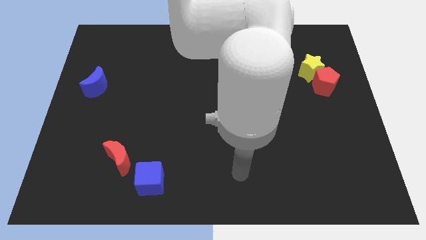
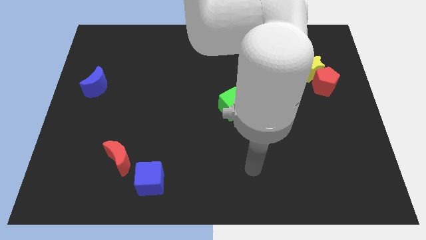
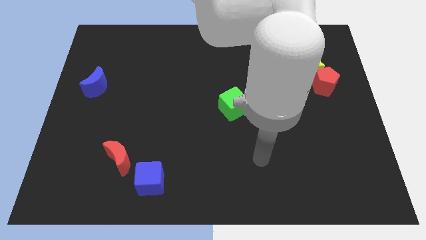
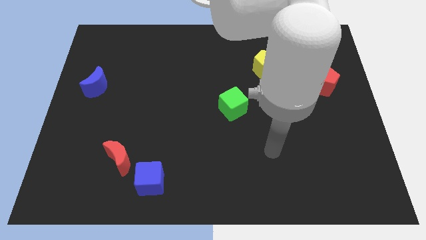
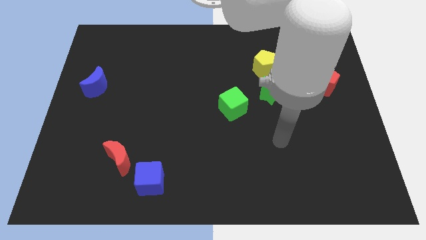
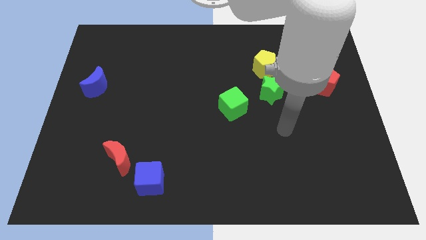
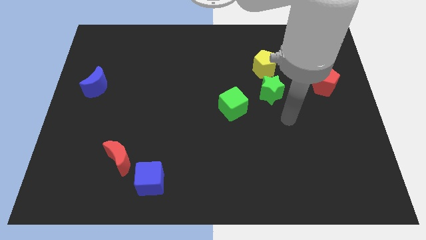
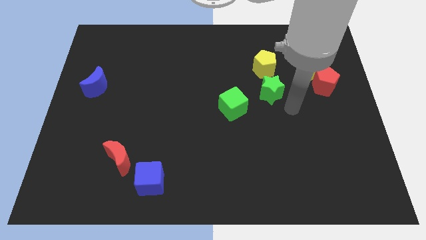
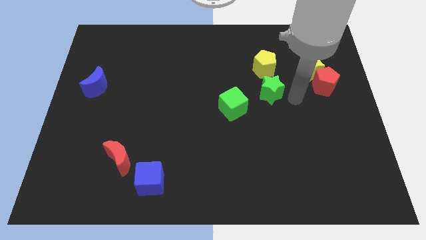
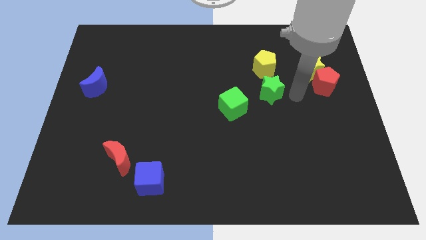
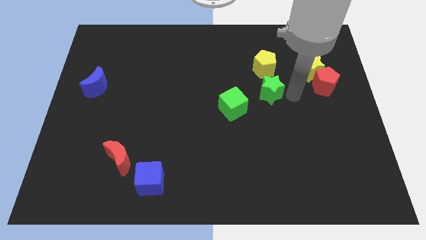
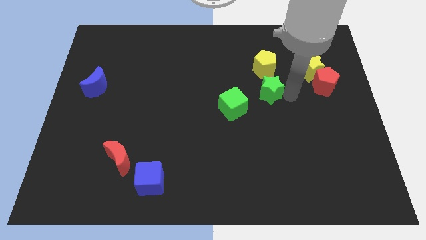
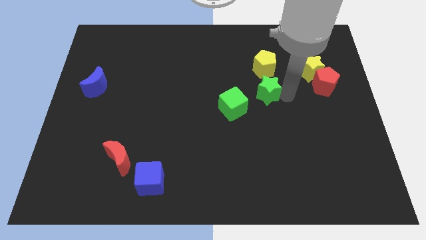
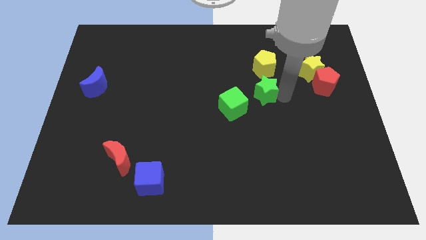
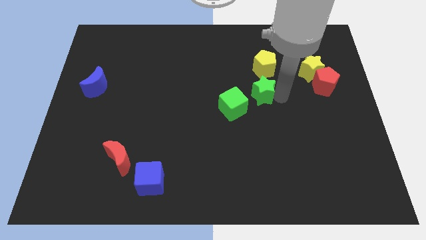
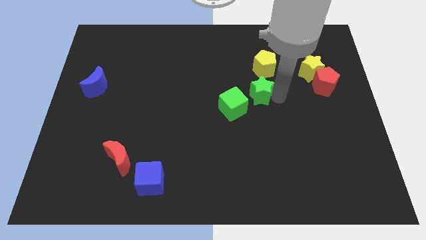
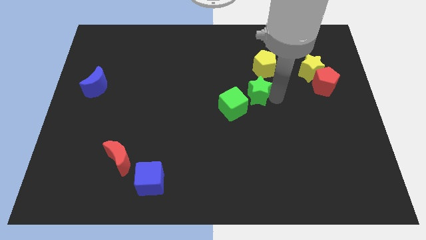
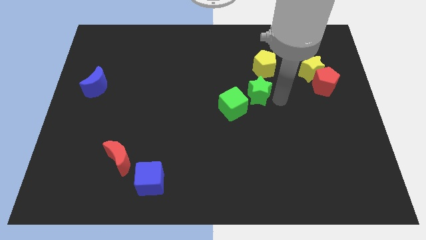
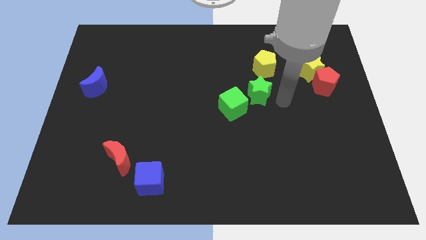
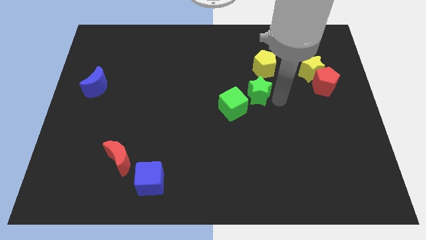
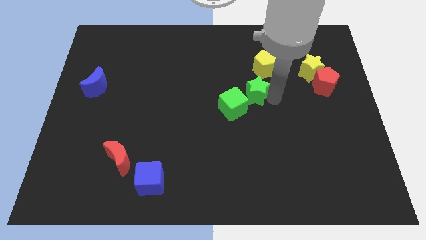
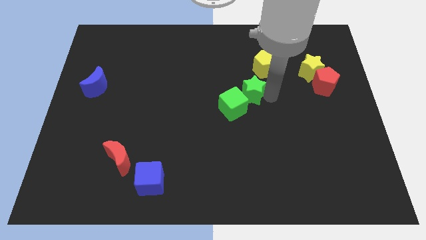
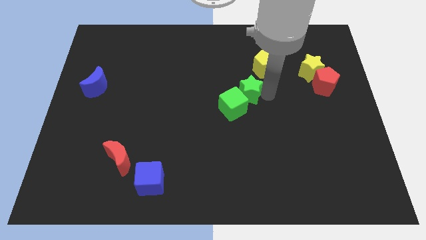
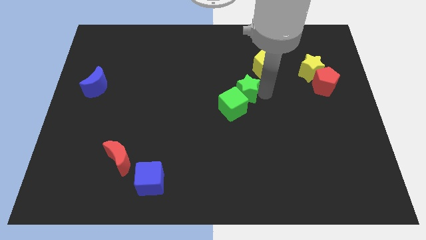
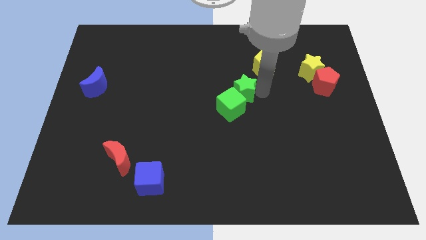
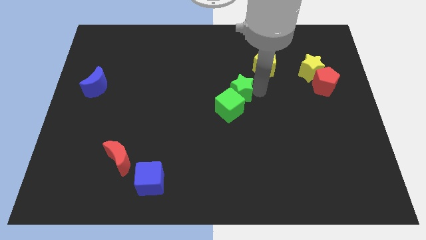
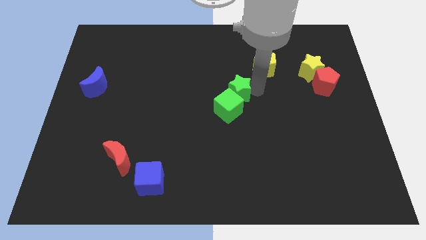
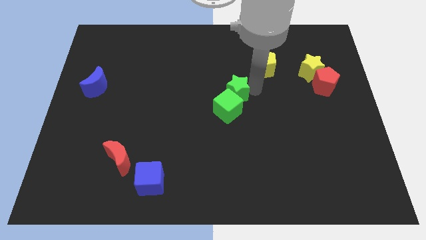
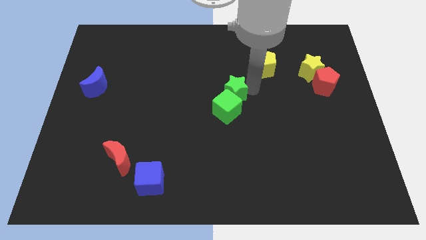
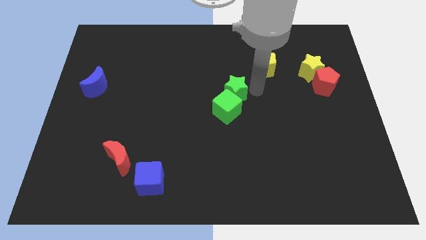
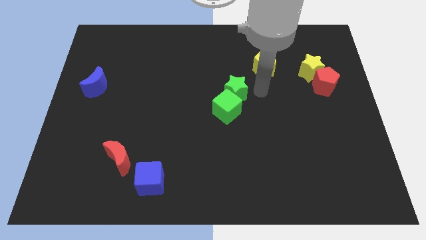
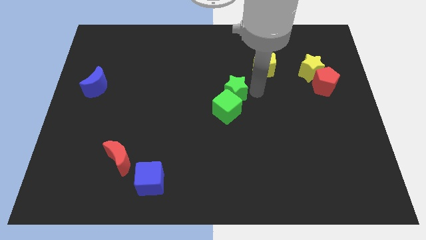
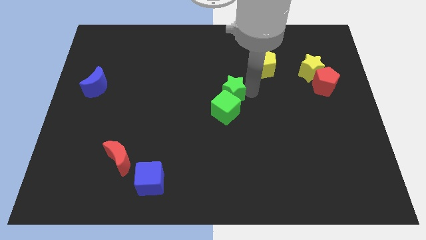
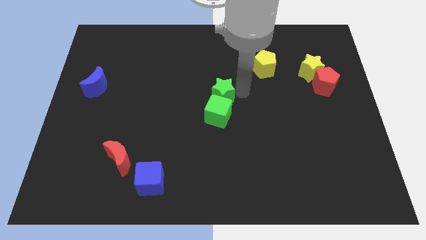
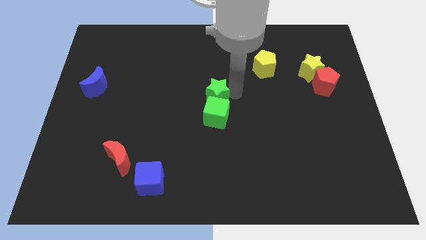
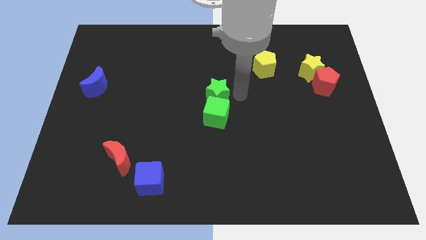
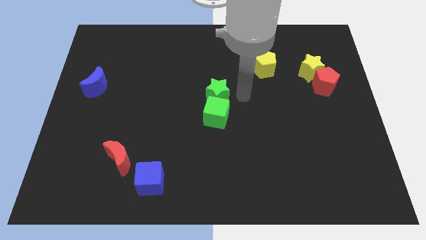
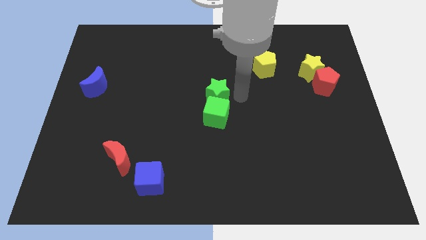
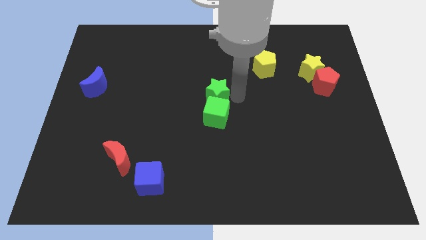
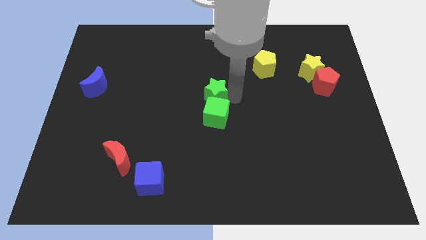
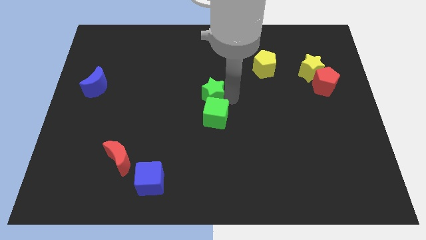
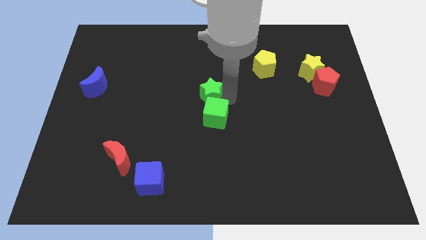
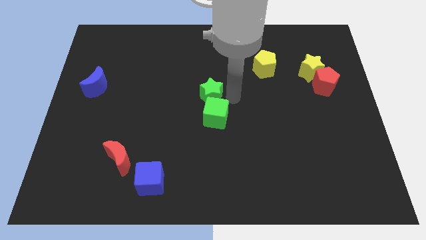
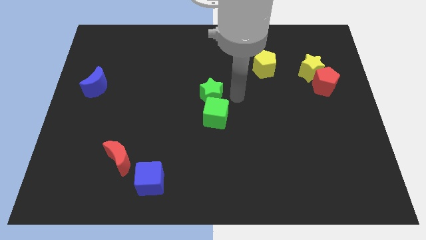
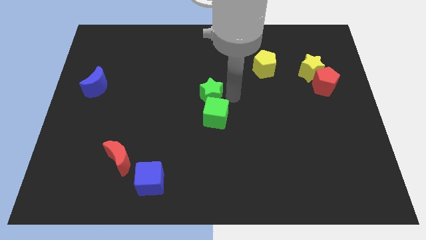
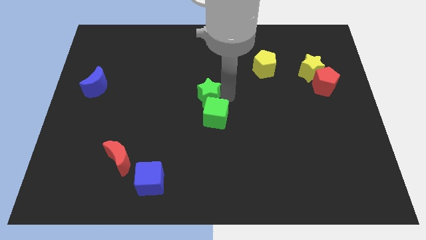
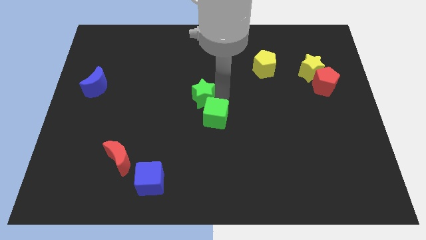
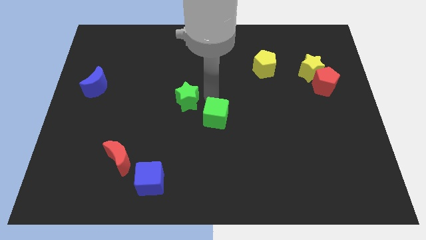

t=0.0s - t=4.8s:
push the green star left

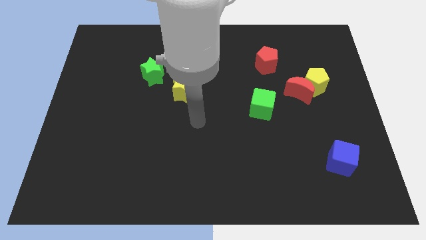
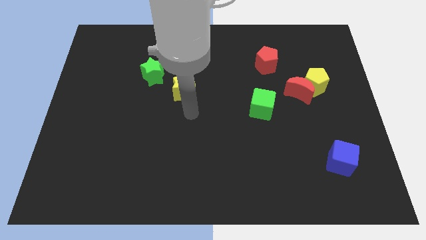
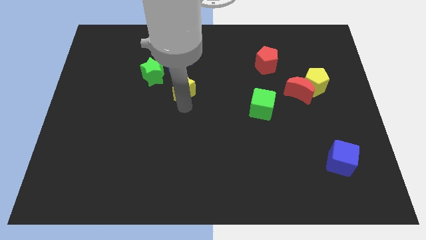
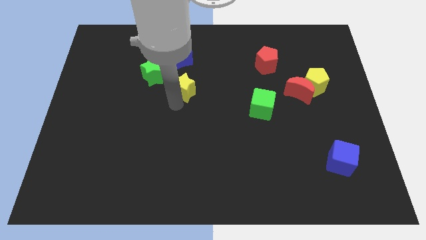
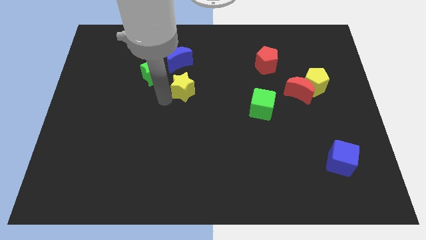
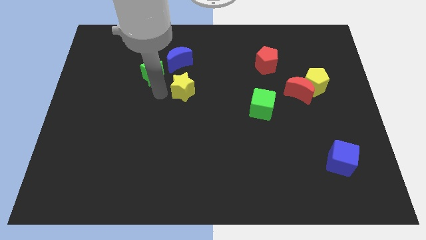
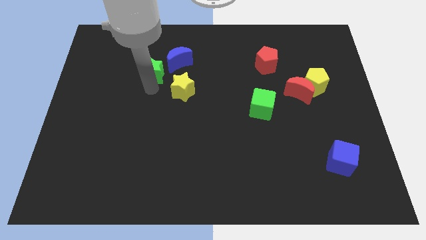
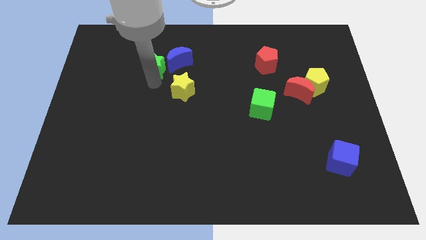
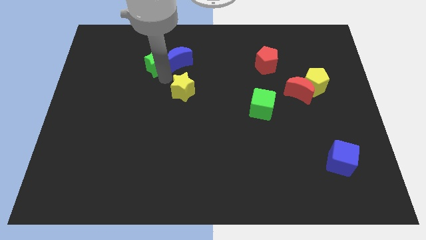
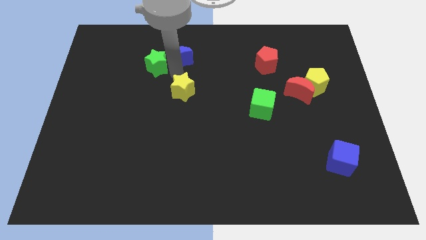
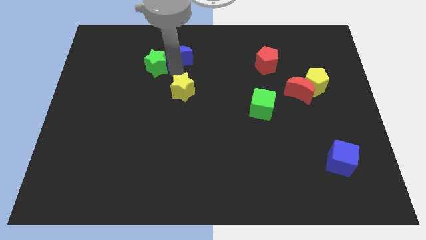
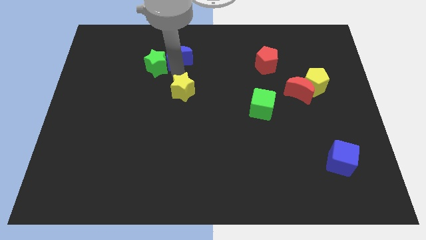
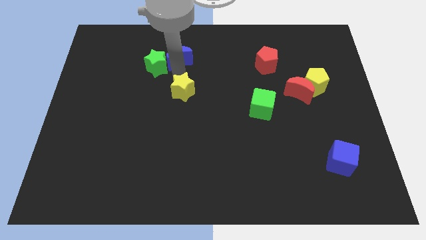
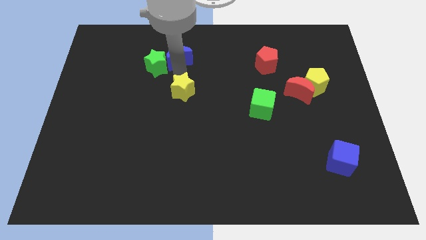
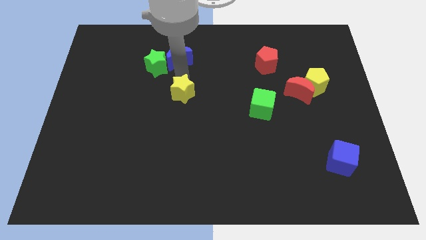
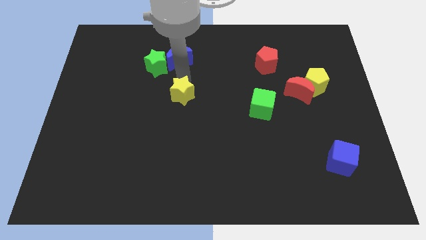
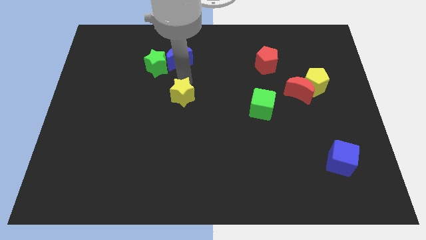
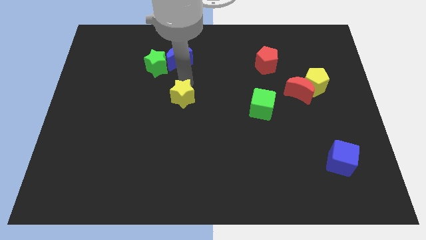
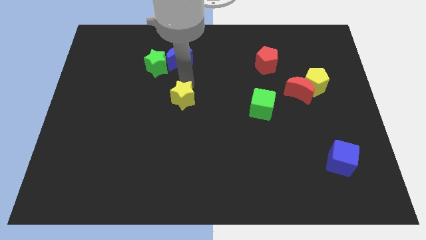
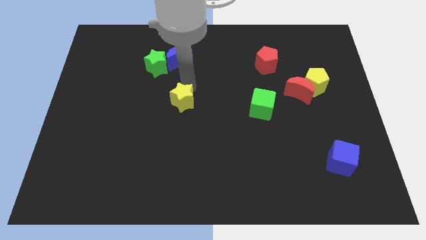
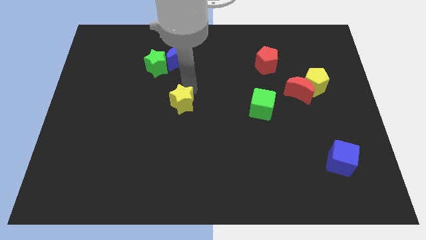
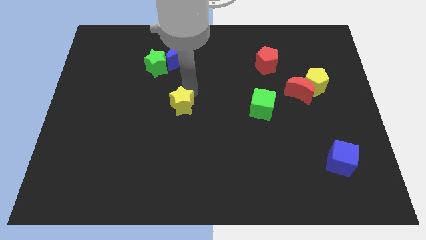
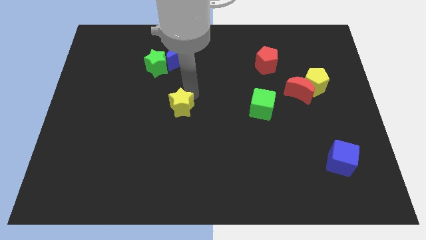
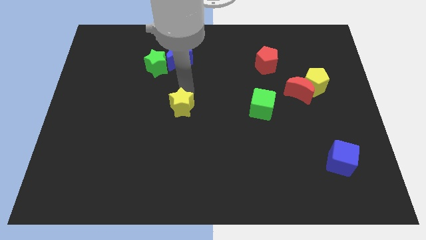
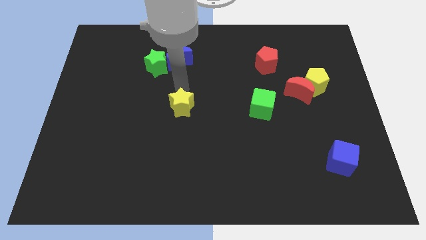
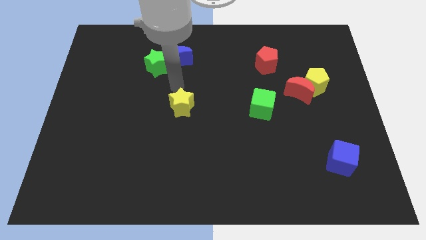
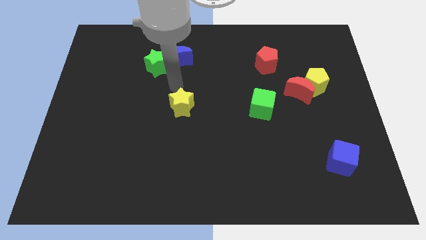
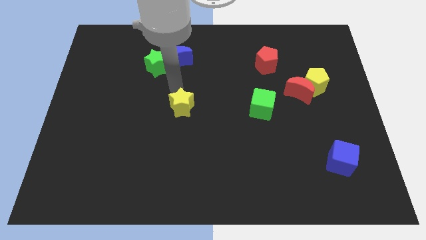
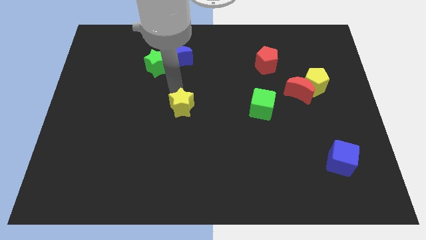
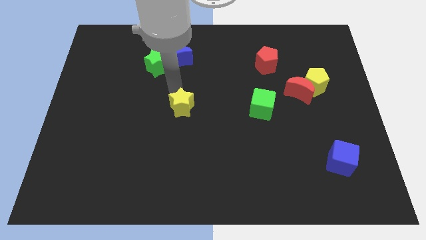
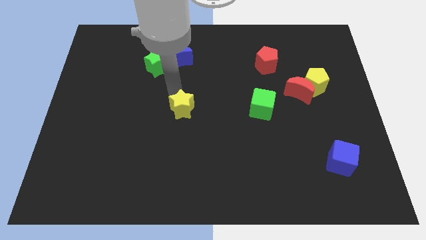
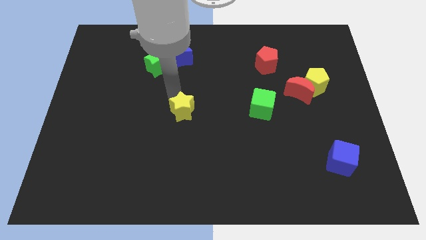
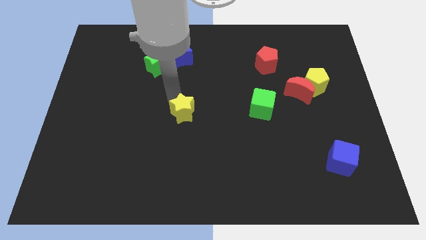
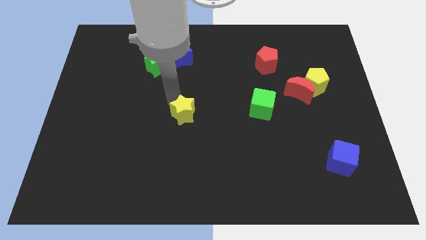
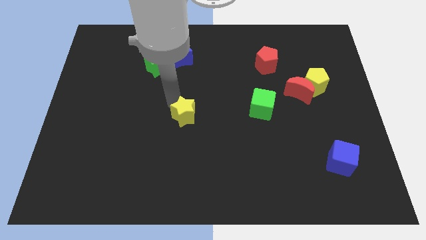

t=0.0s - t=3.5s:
push the yellow star a little bit downwards
